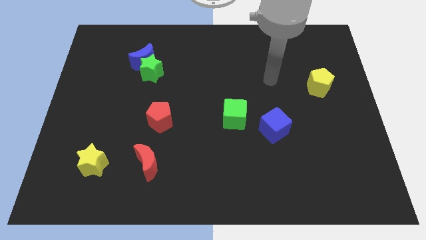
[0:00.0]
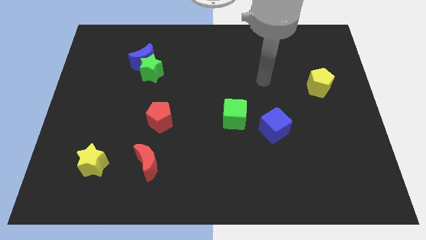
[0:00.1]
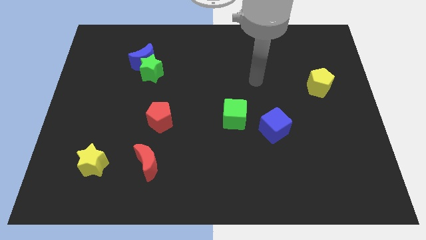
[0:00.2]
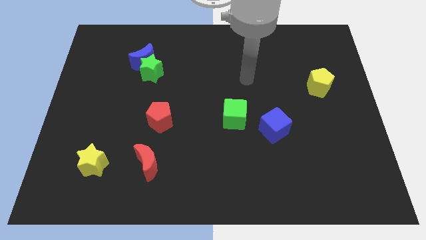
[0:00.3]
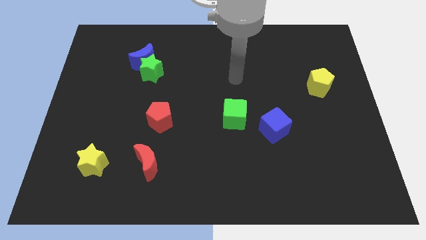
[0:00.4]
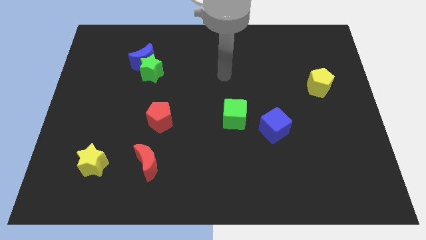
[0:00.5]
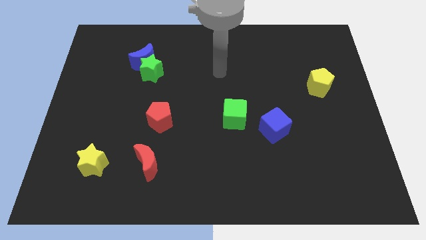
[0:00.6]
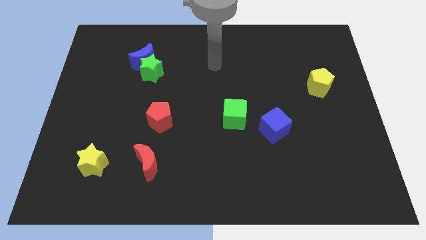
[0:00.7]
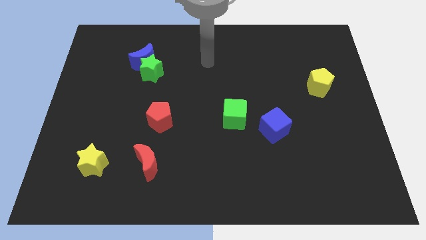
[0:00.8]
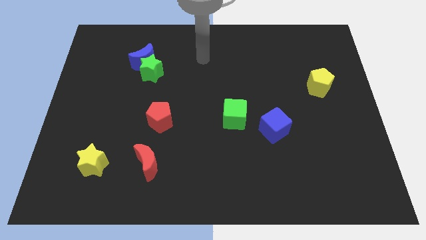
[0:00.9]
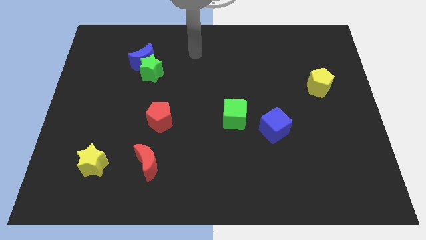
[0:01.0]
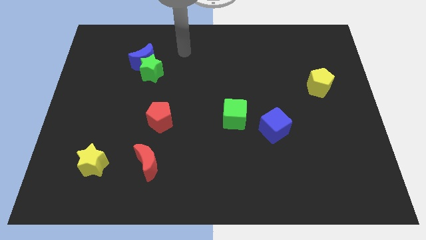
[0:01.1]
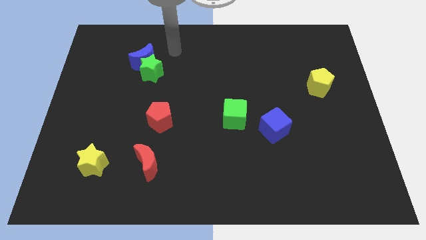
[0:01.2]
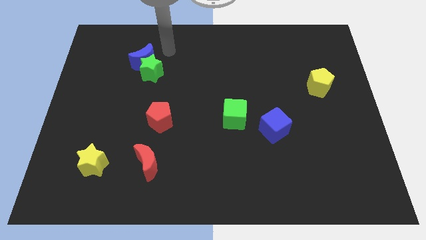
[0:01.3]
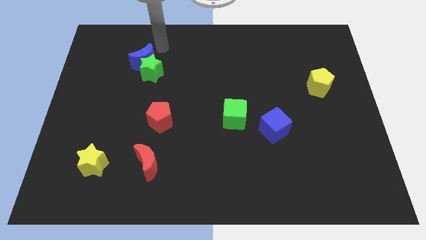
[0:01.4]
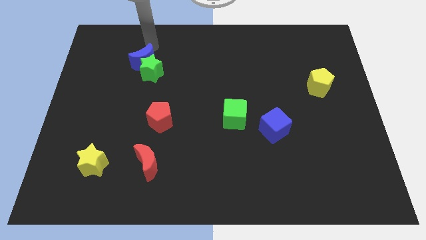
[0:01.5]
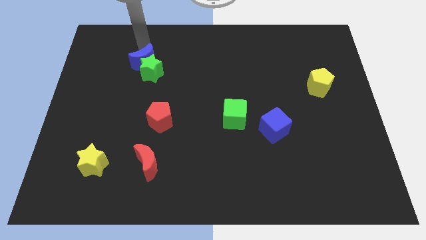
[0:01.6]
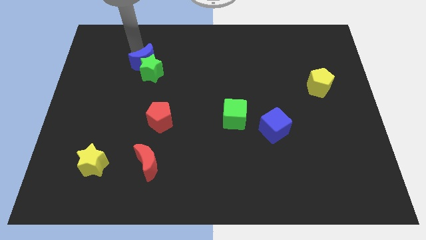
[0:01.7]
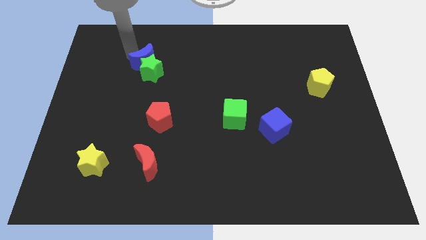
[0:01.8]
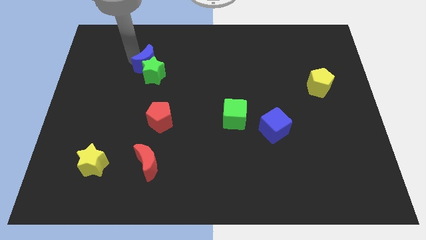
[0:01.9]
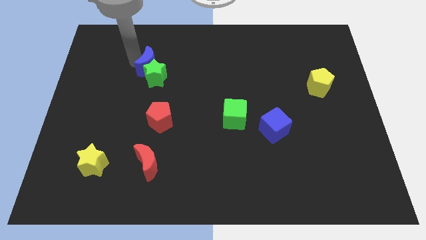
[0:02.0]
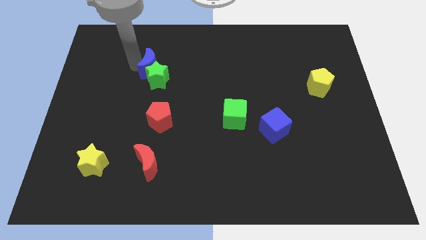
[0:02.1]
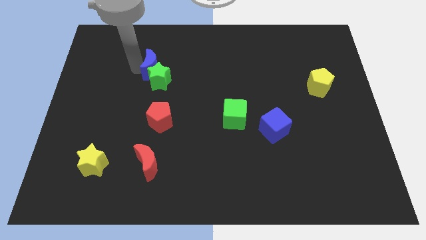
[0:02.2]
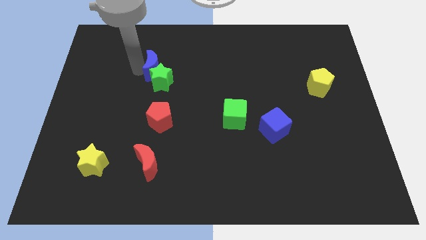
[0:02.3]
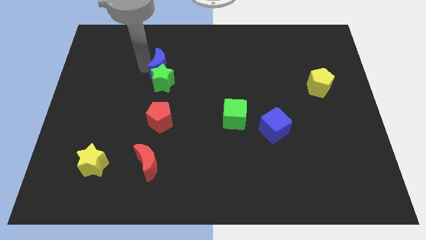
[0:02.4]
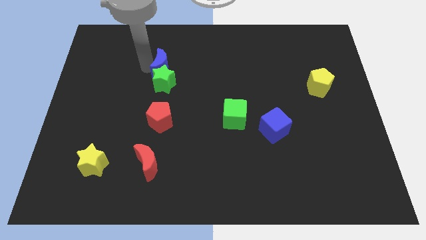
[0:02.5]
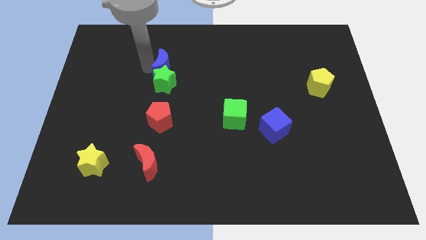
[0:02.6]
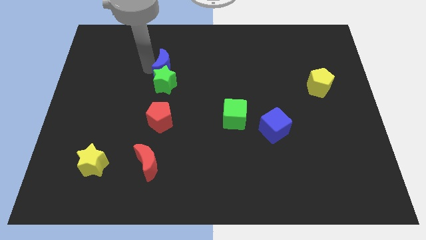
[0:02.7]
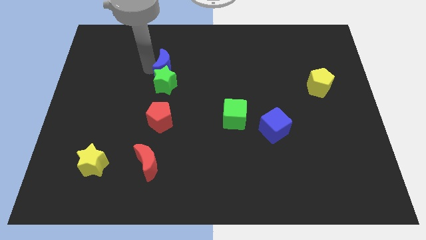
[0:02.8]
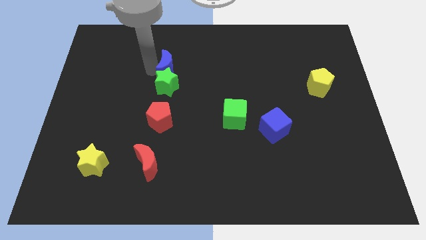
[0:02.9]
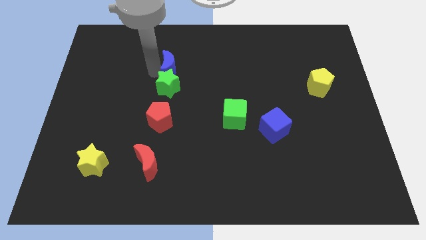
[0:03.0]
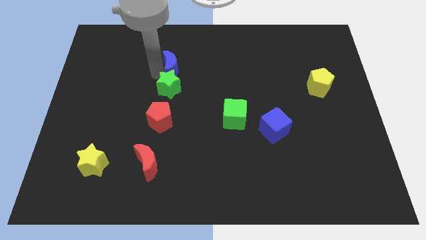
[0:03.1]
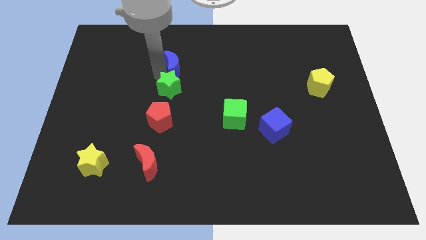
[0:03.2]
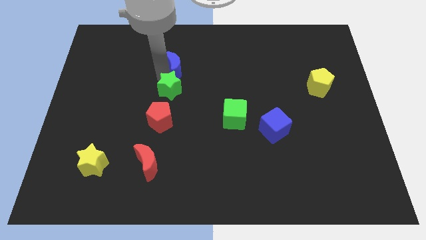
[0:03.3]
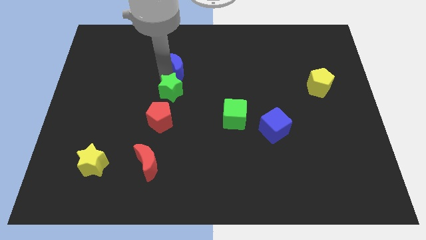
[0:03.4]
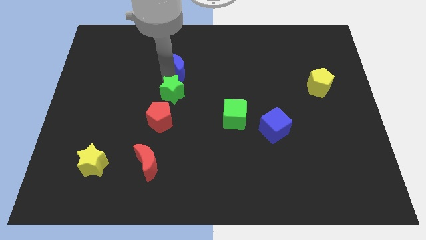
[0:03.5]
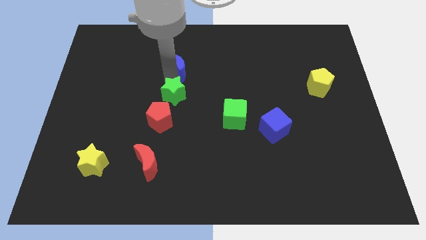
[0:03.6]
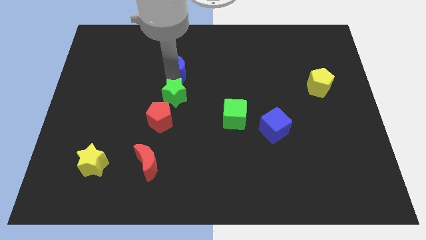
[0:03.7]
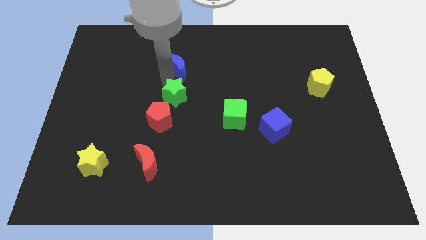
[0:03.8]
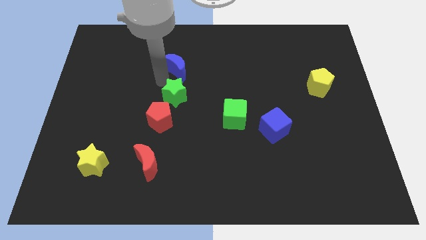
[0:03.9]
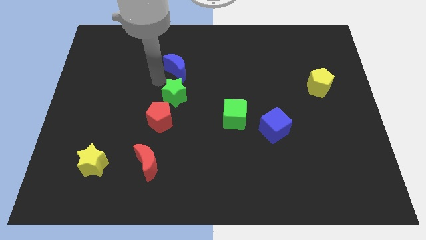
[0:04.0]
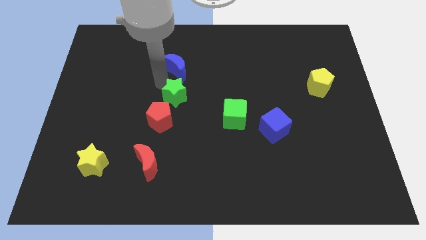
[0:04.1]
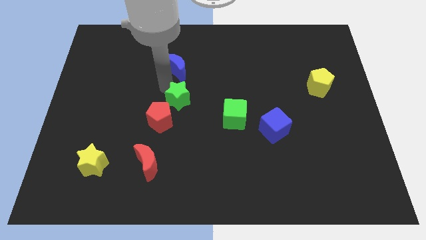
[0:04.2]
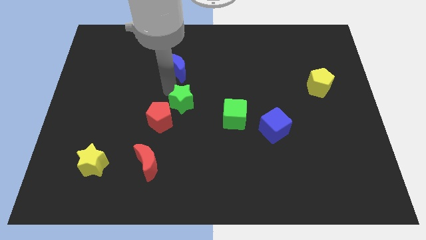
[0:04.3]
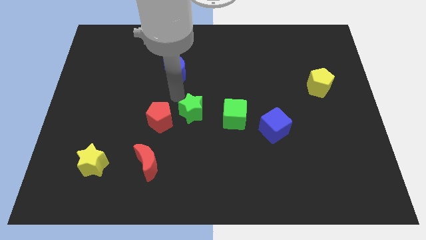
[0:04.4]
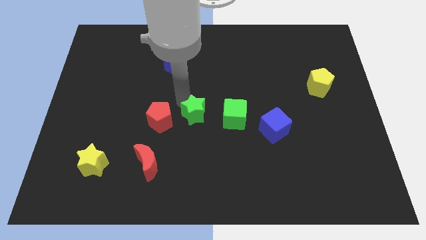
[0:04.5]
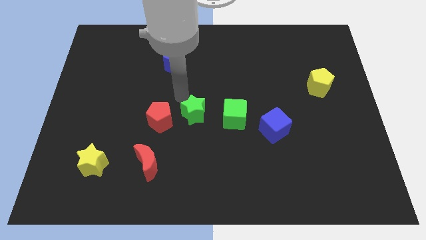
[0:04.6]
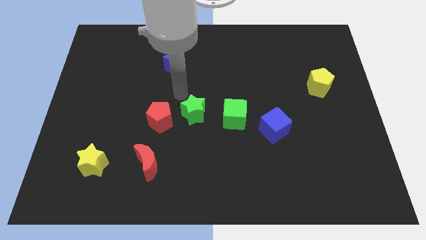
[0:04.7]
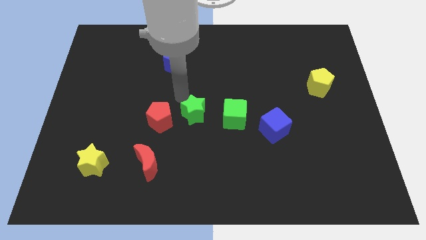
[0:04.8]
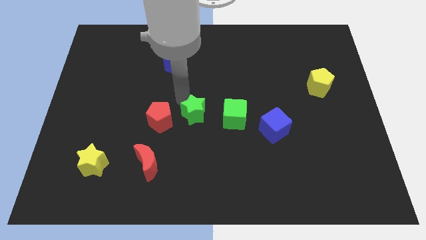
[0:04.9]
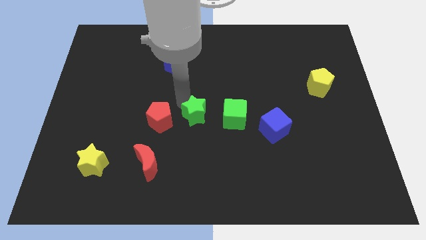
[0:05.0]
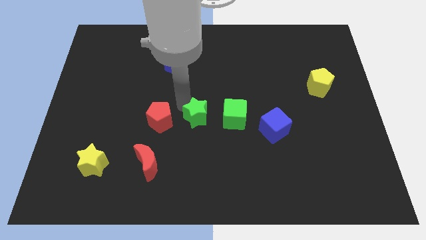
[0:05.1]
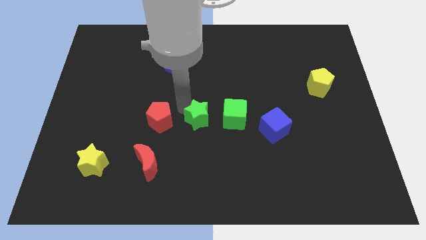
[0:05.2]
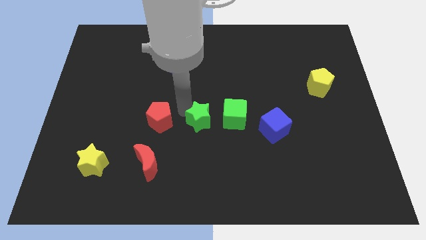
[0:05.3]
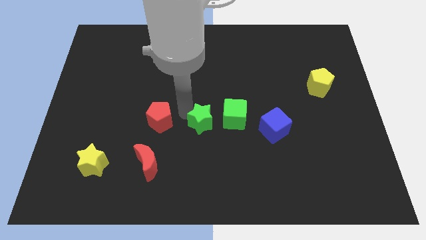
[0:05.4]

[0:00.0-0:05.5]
push the green star diagonally down and to the left of the green cube

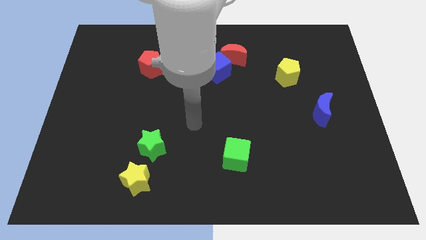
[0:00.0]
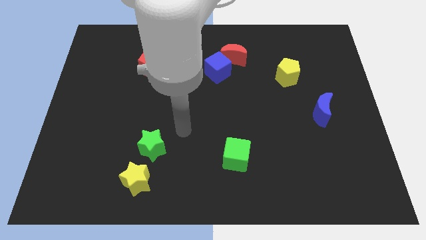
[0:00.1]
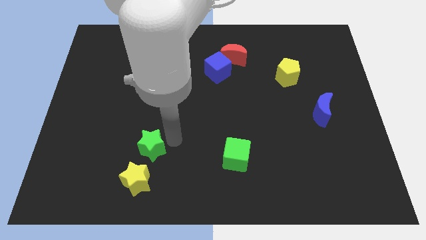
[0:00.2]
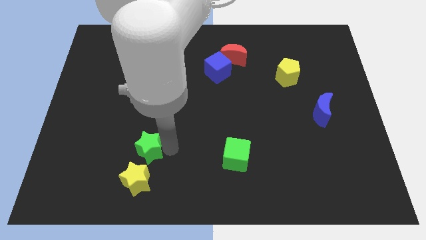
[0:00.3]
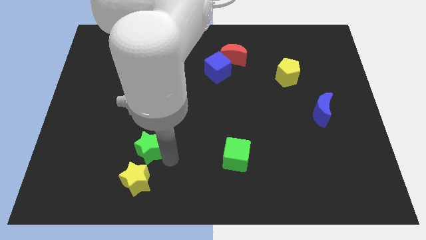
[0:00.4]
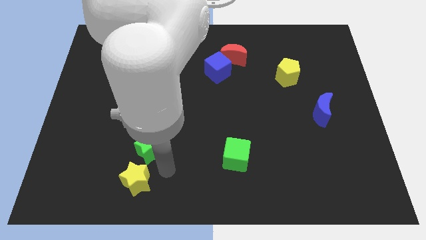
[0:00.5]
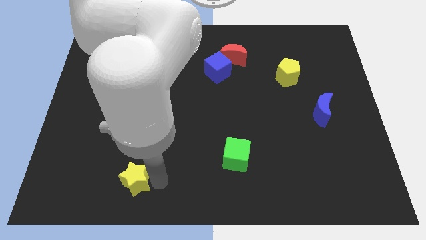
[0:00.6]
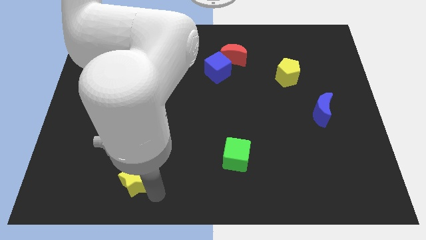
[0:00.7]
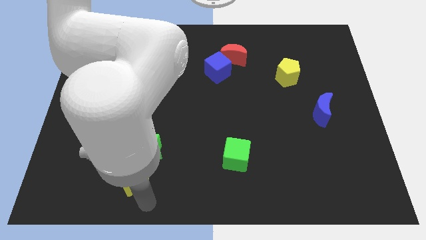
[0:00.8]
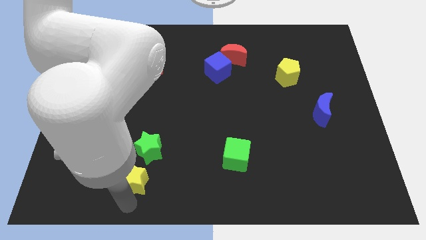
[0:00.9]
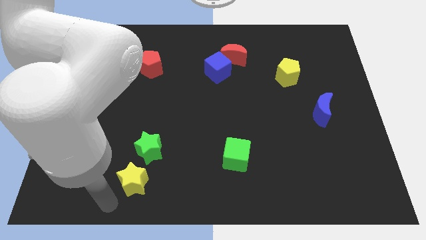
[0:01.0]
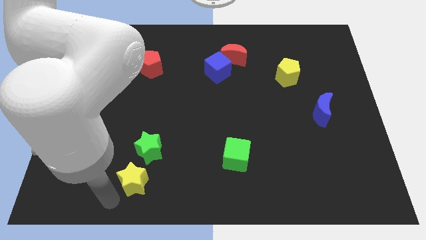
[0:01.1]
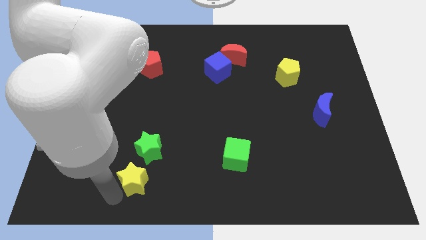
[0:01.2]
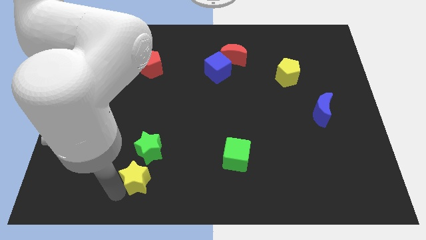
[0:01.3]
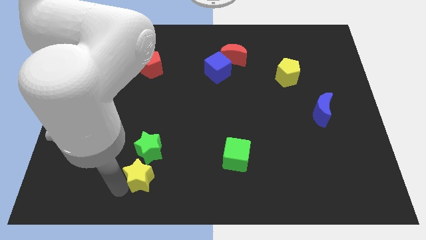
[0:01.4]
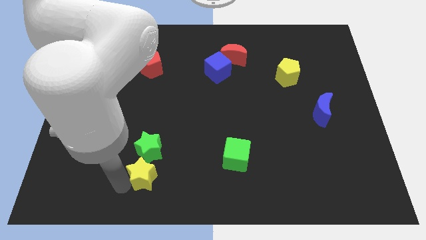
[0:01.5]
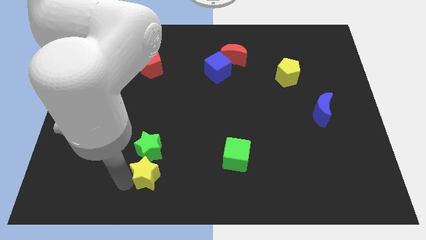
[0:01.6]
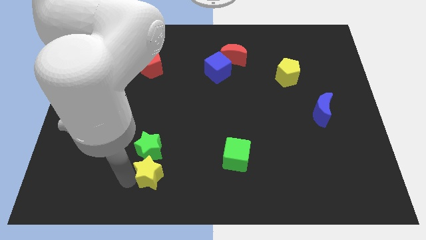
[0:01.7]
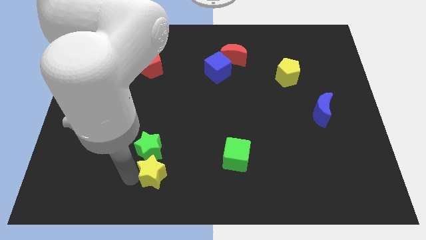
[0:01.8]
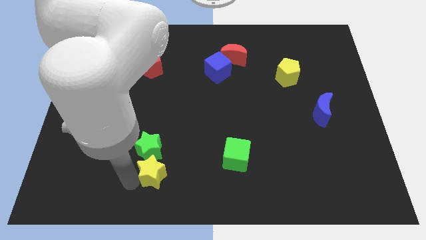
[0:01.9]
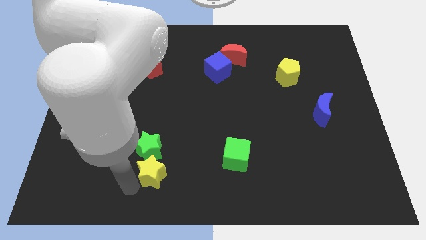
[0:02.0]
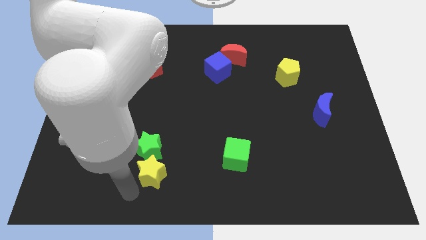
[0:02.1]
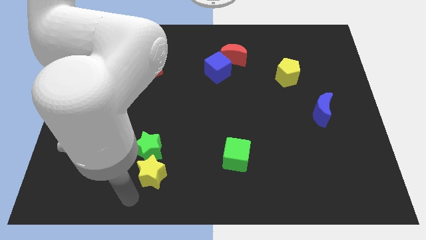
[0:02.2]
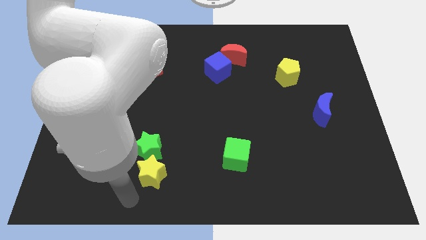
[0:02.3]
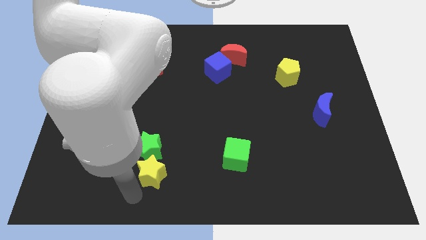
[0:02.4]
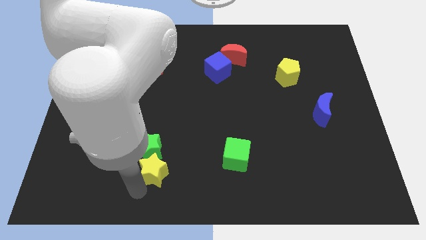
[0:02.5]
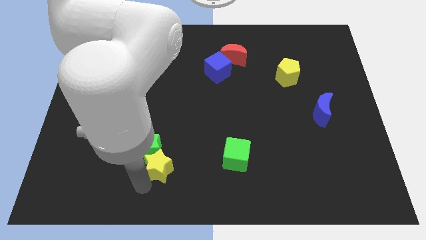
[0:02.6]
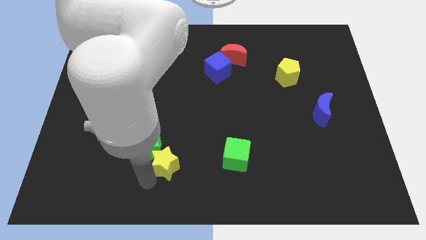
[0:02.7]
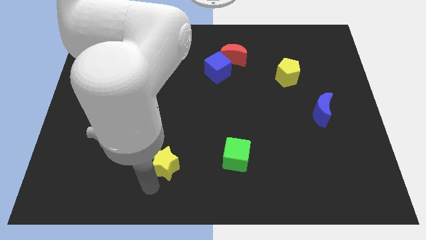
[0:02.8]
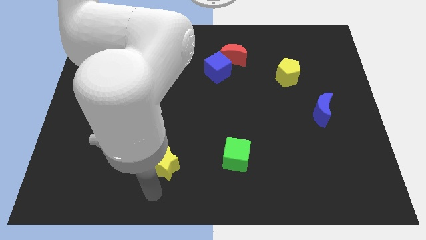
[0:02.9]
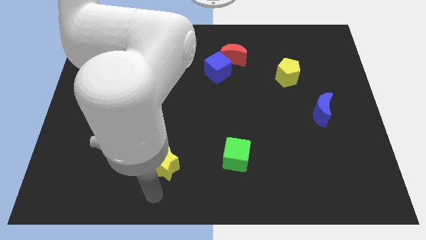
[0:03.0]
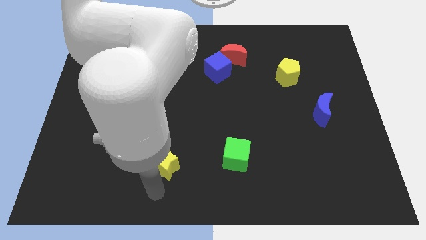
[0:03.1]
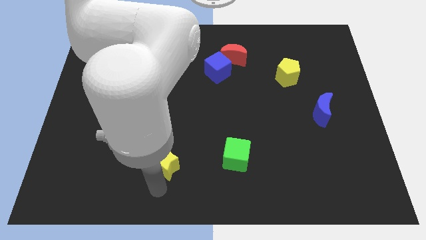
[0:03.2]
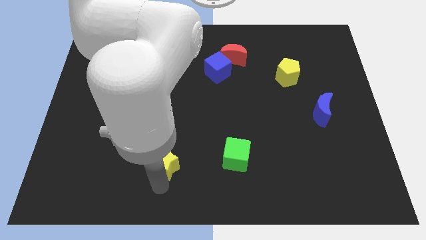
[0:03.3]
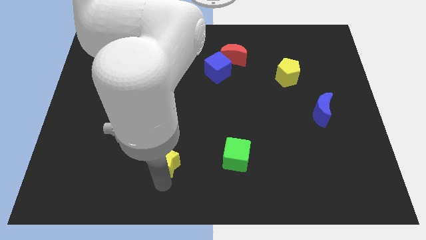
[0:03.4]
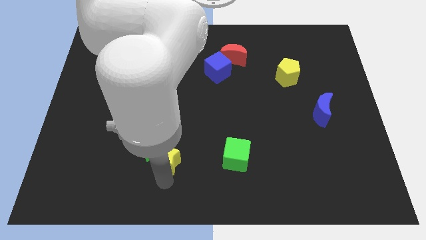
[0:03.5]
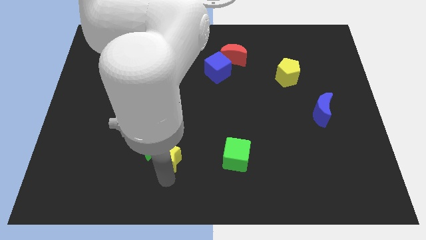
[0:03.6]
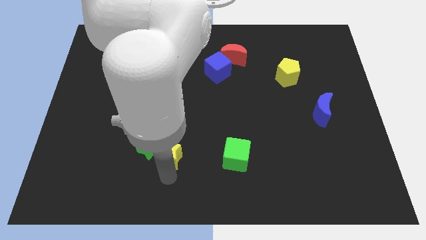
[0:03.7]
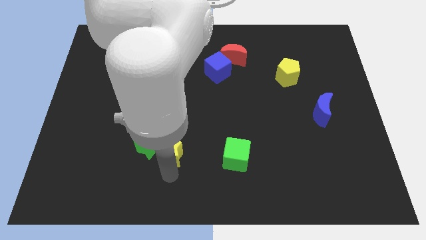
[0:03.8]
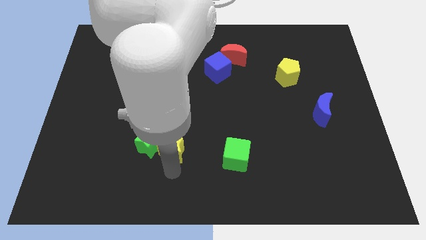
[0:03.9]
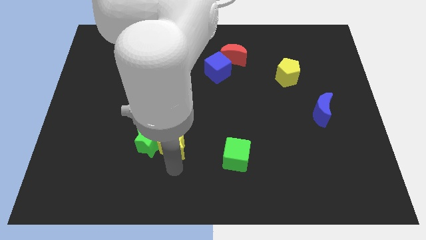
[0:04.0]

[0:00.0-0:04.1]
slide the yellow star to the top right side of the green star
